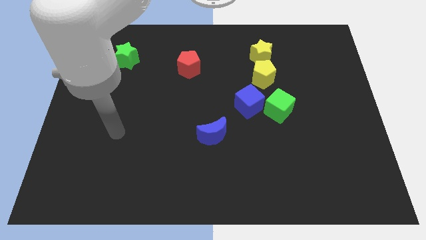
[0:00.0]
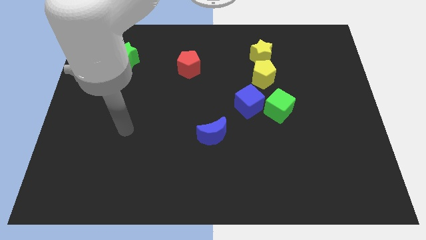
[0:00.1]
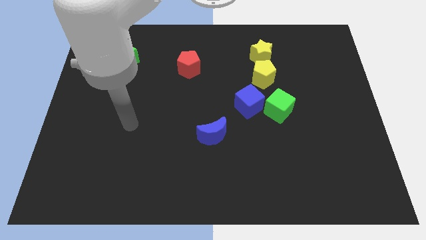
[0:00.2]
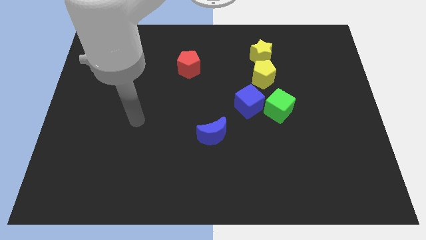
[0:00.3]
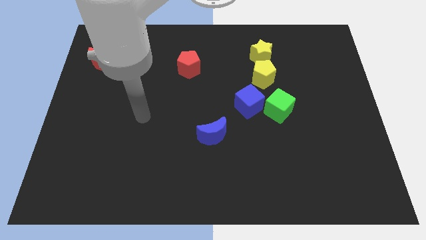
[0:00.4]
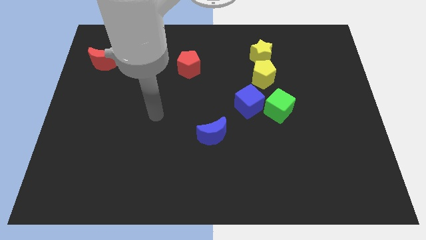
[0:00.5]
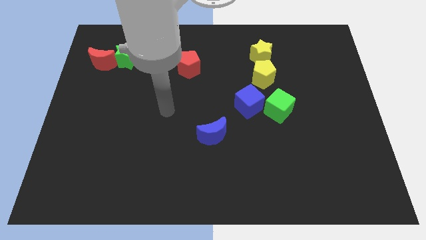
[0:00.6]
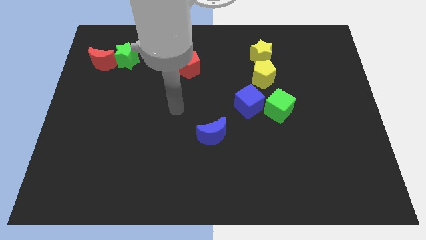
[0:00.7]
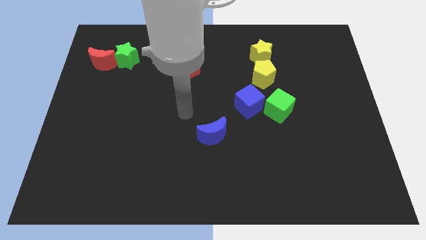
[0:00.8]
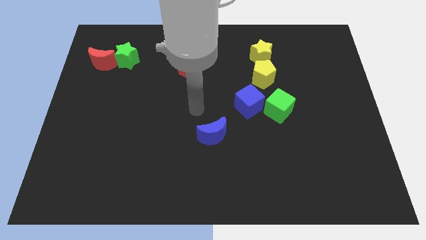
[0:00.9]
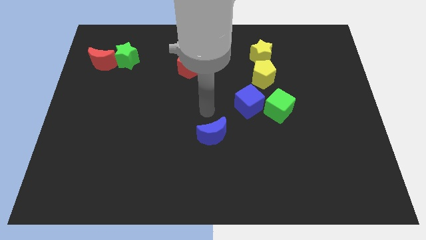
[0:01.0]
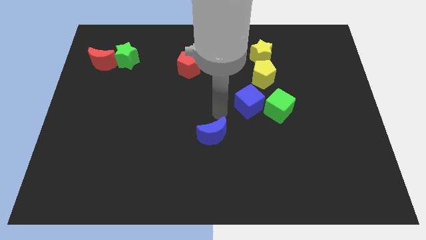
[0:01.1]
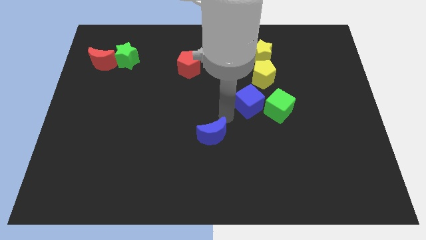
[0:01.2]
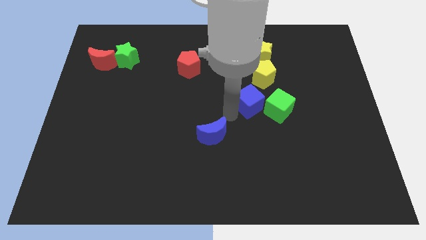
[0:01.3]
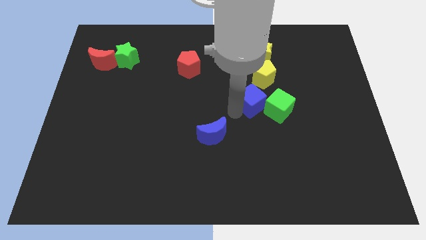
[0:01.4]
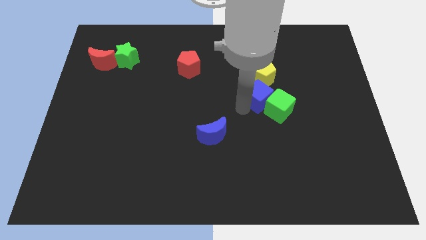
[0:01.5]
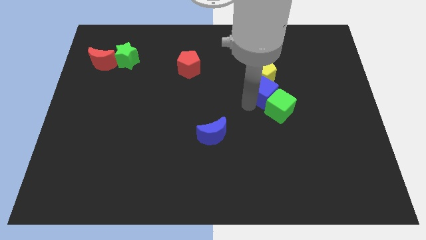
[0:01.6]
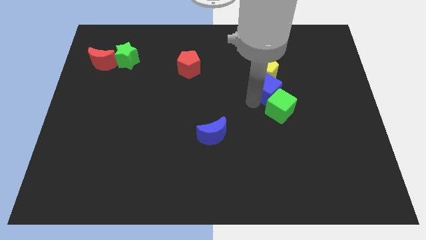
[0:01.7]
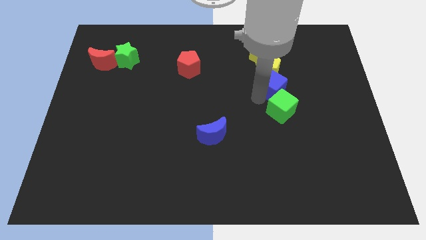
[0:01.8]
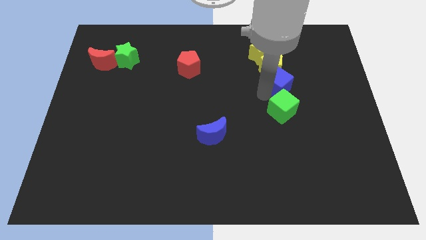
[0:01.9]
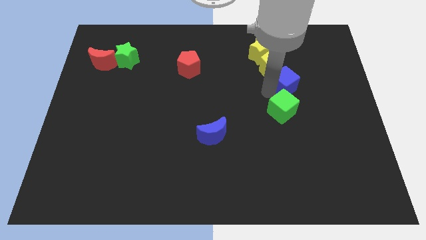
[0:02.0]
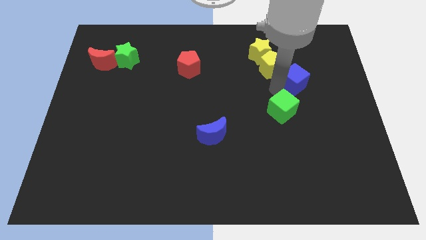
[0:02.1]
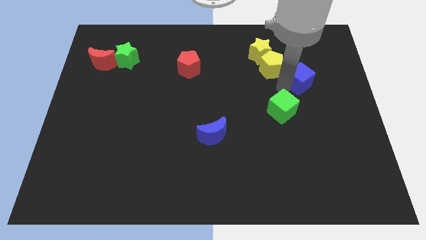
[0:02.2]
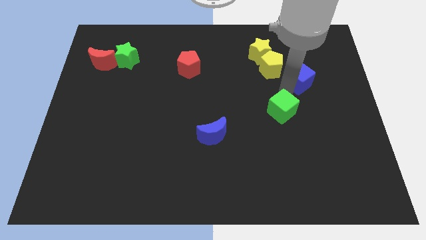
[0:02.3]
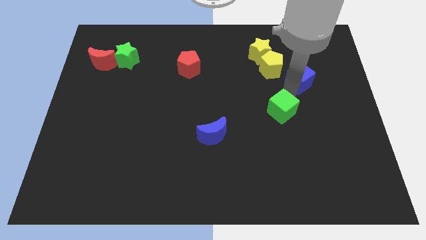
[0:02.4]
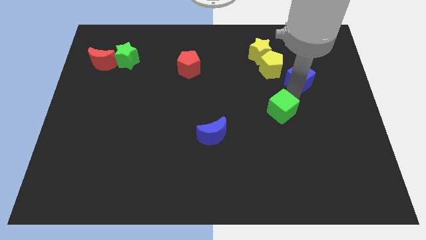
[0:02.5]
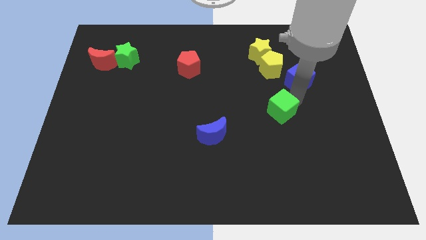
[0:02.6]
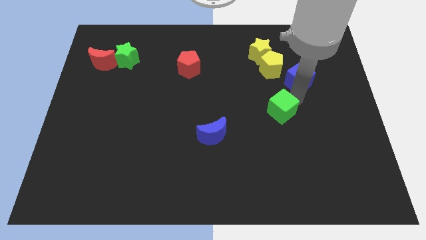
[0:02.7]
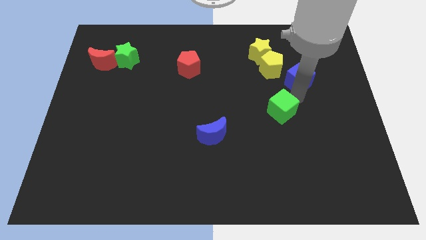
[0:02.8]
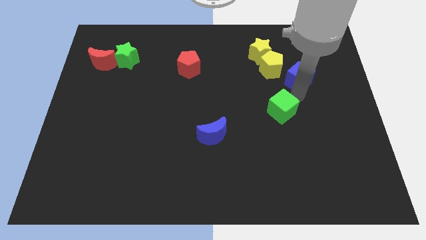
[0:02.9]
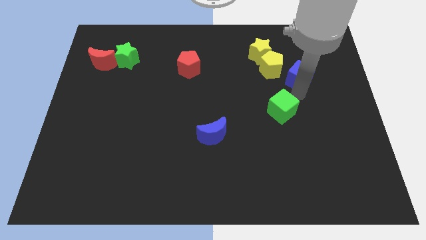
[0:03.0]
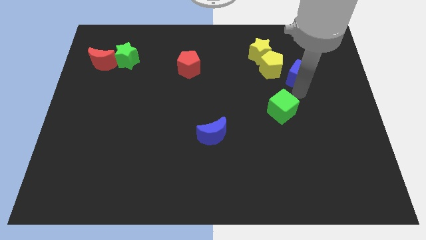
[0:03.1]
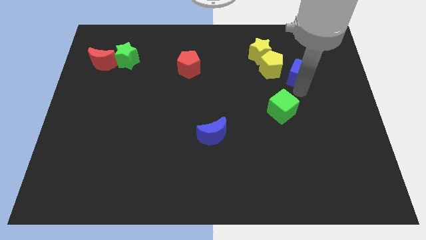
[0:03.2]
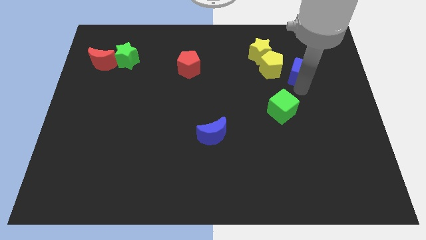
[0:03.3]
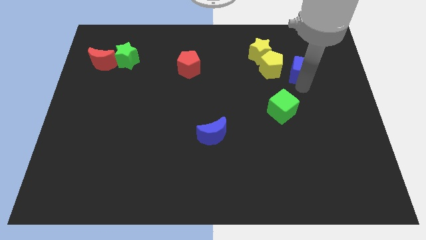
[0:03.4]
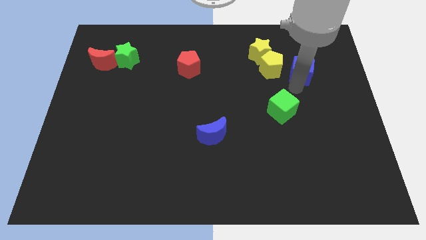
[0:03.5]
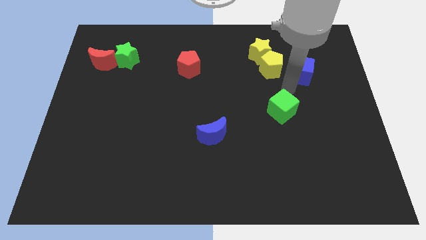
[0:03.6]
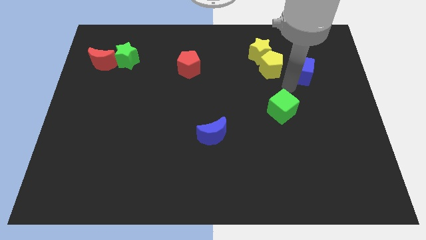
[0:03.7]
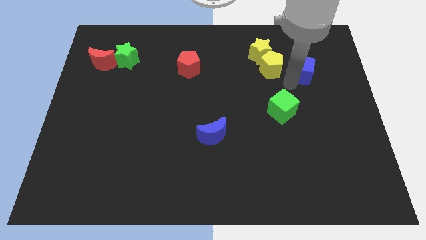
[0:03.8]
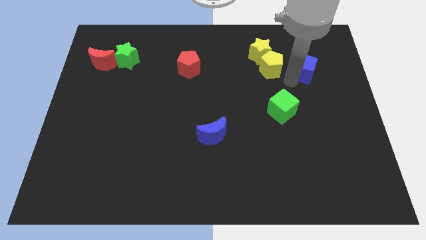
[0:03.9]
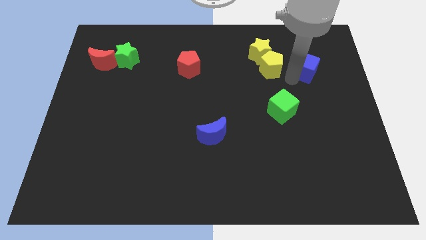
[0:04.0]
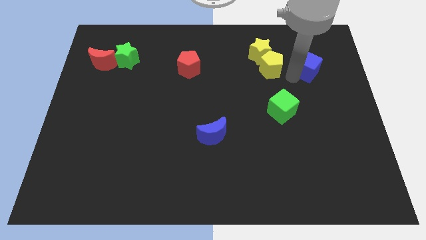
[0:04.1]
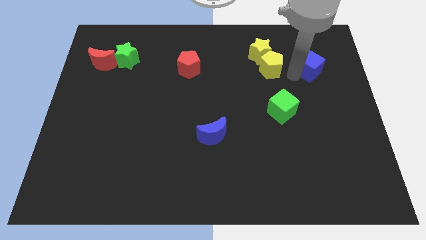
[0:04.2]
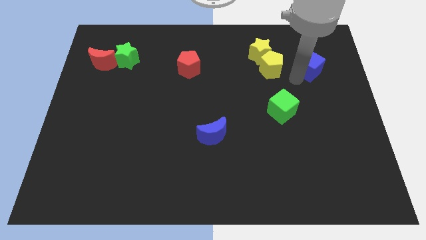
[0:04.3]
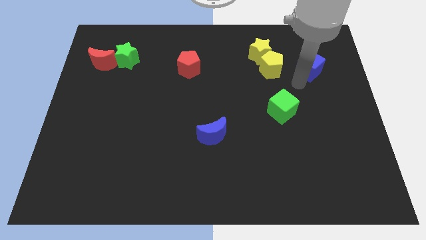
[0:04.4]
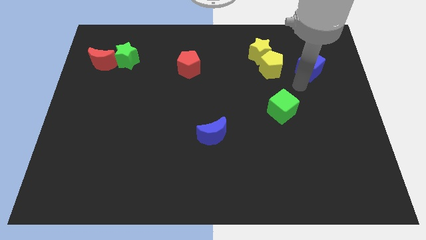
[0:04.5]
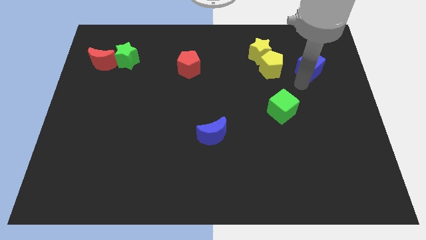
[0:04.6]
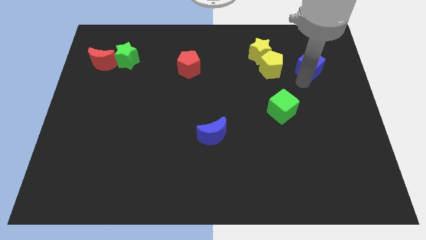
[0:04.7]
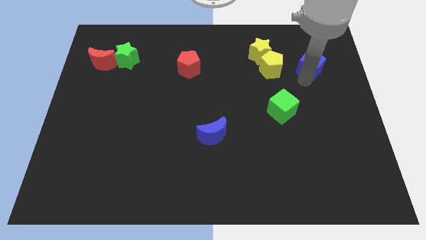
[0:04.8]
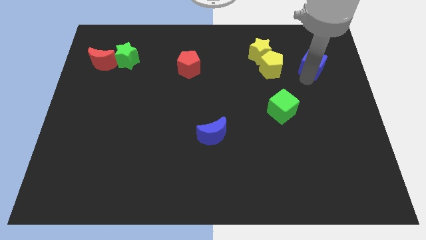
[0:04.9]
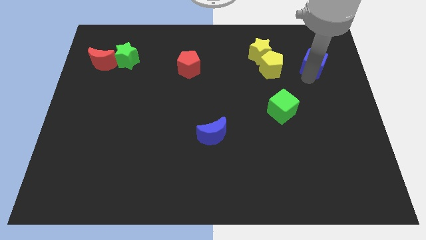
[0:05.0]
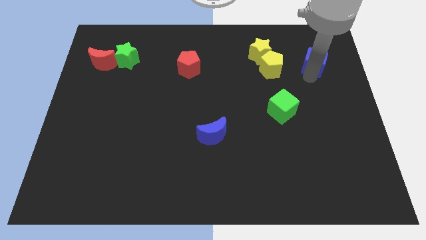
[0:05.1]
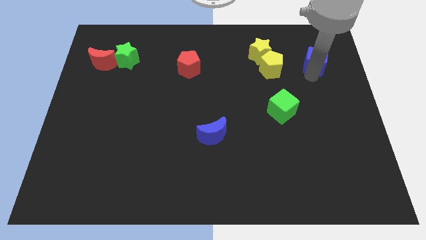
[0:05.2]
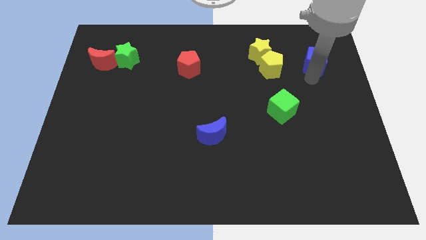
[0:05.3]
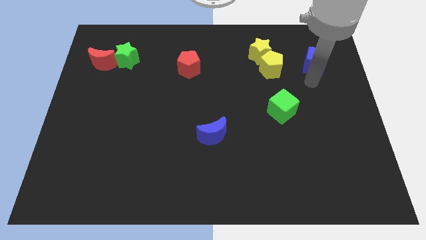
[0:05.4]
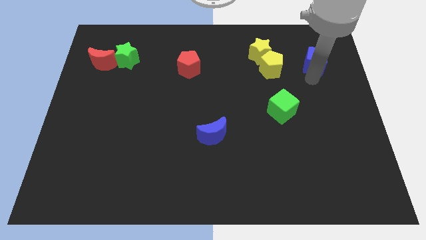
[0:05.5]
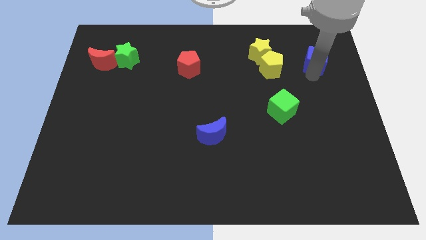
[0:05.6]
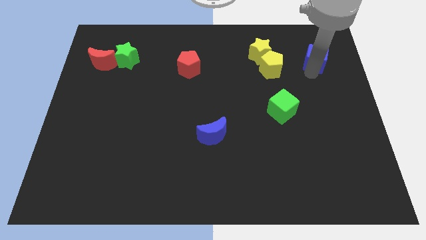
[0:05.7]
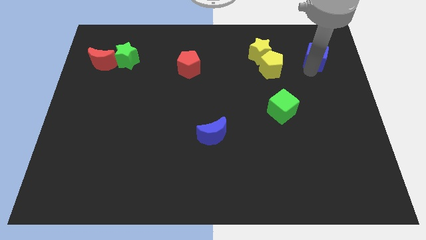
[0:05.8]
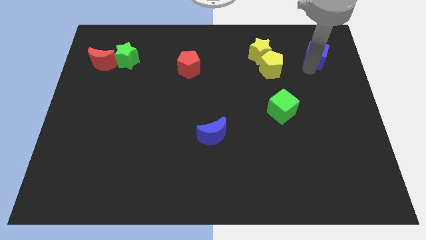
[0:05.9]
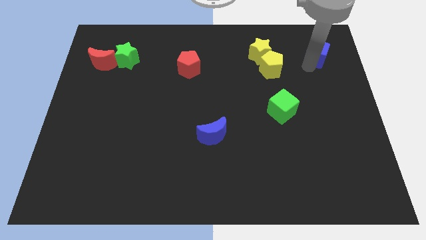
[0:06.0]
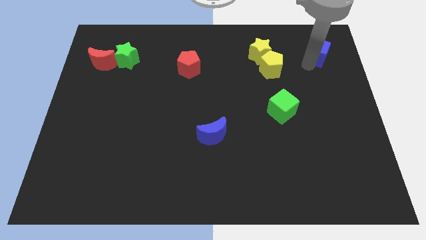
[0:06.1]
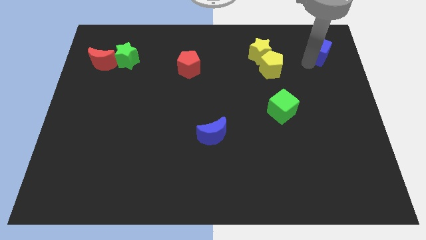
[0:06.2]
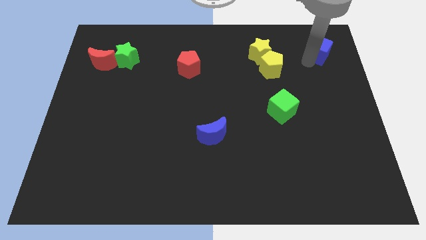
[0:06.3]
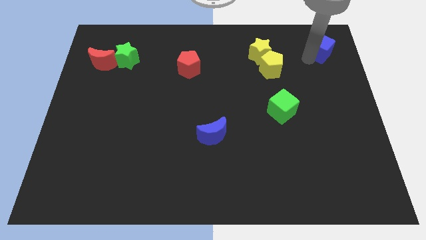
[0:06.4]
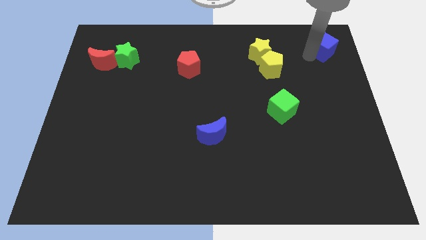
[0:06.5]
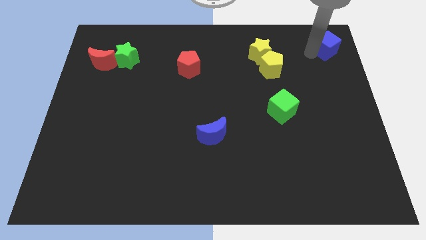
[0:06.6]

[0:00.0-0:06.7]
push the blue cube to the top right of the board
